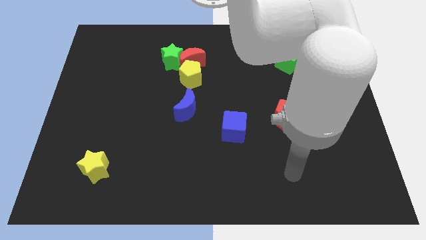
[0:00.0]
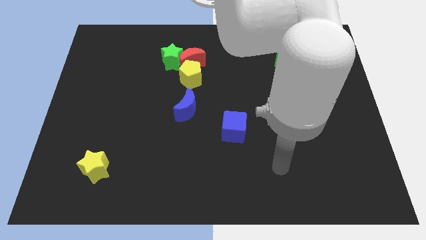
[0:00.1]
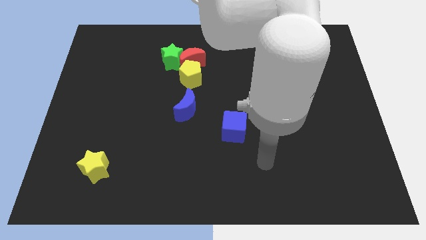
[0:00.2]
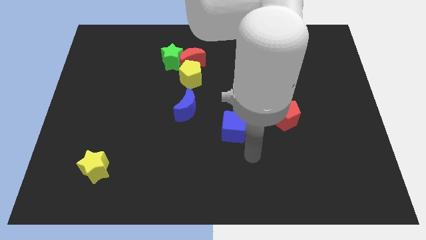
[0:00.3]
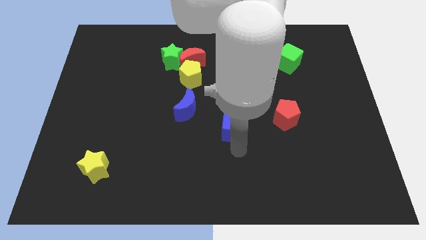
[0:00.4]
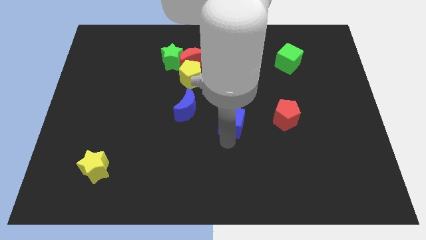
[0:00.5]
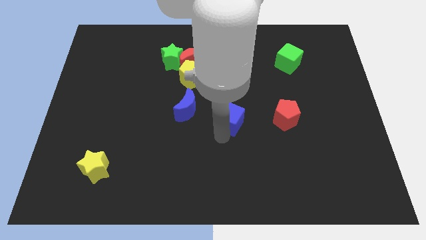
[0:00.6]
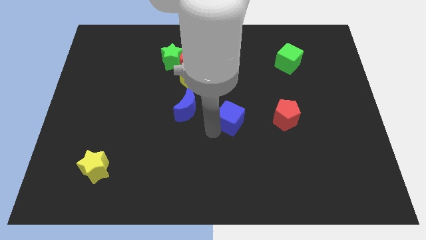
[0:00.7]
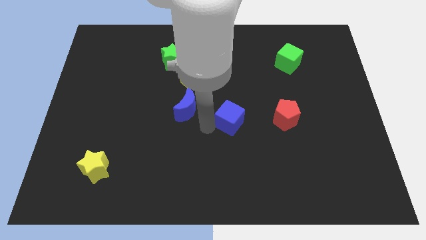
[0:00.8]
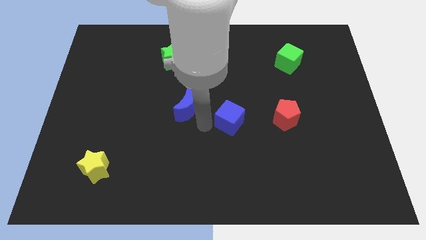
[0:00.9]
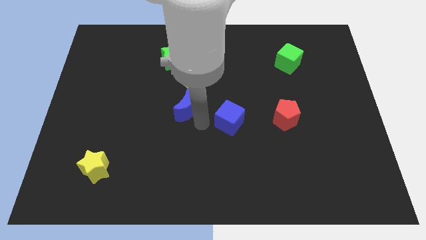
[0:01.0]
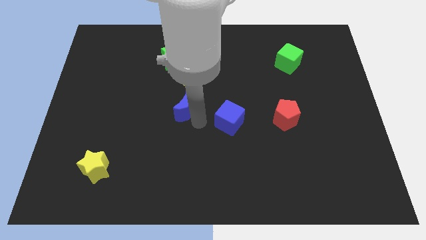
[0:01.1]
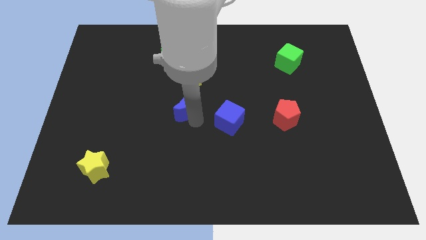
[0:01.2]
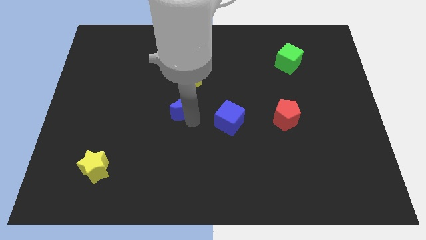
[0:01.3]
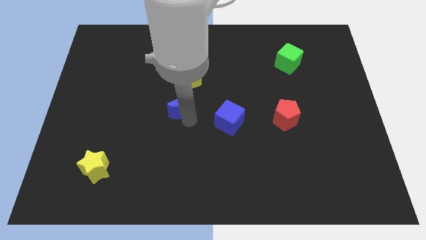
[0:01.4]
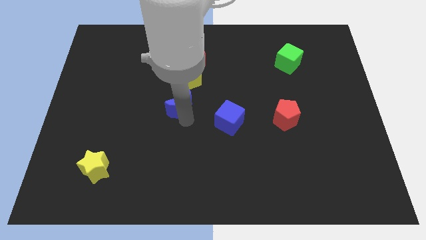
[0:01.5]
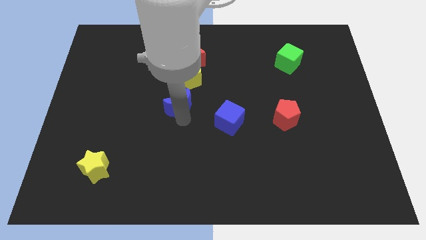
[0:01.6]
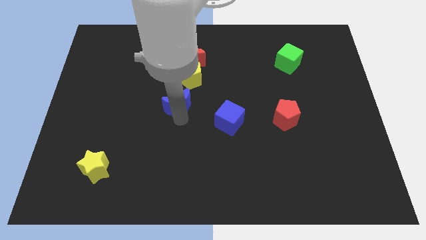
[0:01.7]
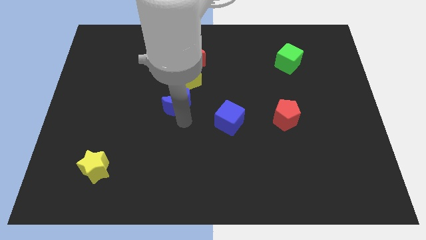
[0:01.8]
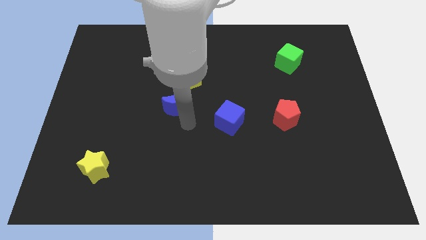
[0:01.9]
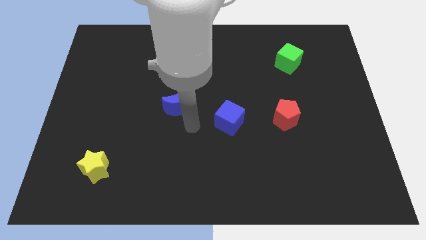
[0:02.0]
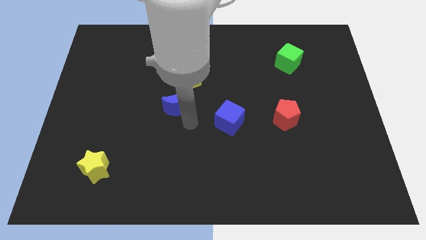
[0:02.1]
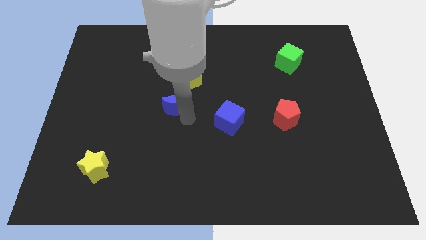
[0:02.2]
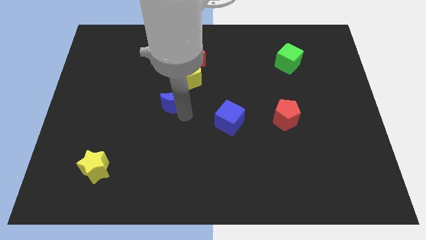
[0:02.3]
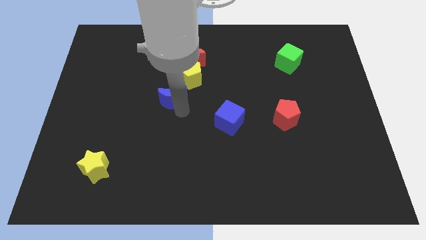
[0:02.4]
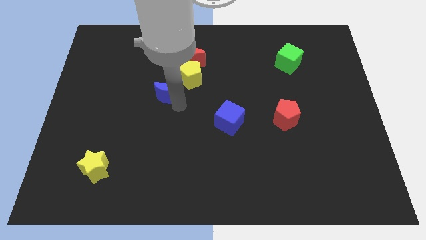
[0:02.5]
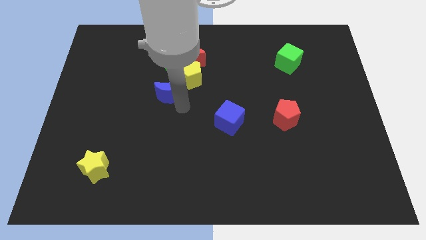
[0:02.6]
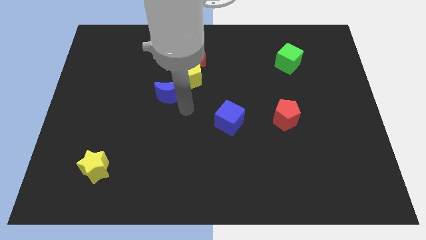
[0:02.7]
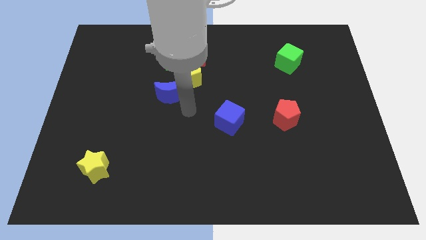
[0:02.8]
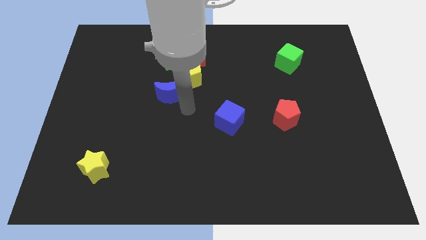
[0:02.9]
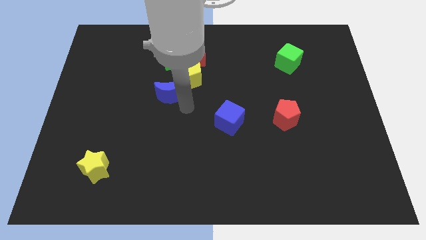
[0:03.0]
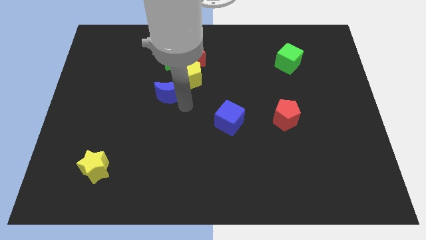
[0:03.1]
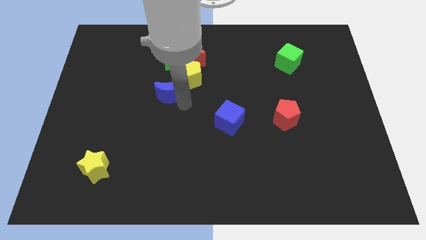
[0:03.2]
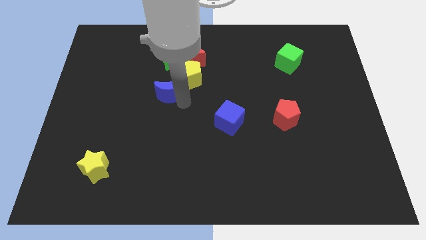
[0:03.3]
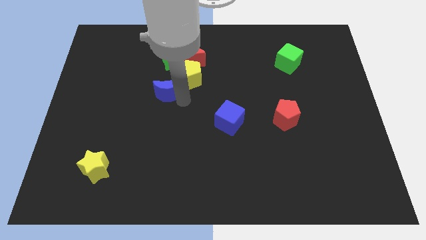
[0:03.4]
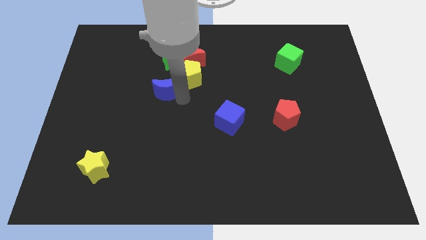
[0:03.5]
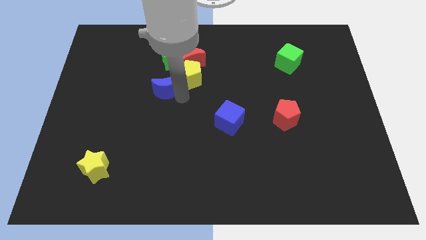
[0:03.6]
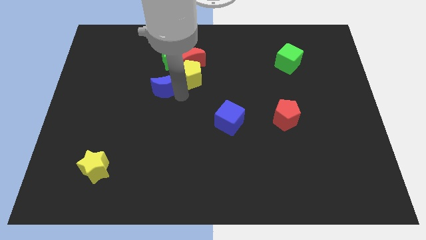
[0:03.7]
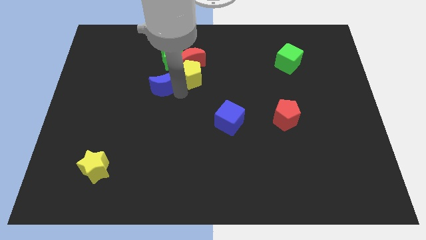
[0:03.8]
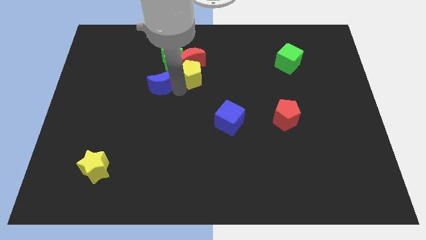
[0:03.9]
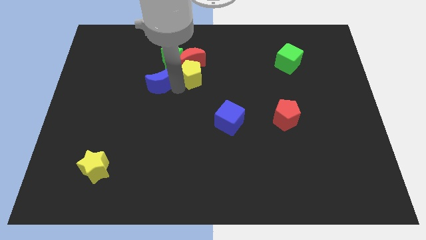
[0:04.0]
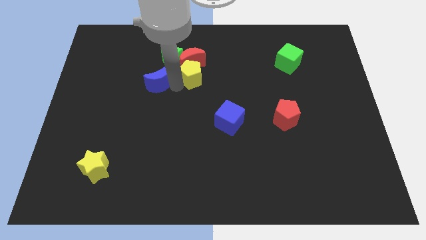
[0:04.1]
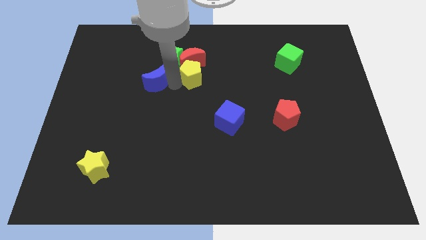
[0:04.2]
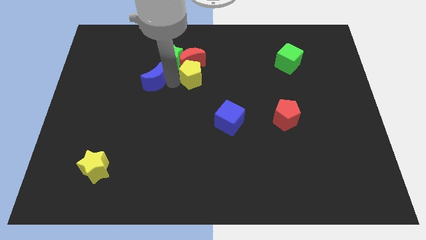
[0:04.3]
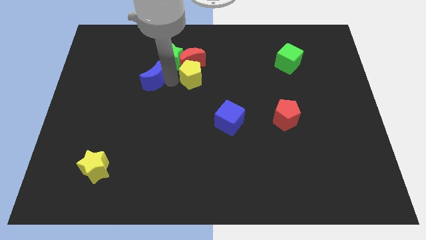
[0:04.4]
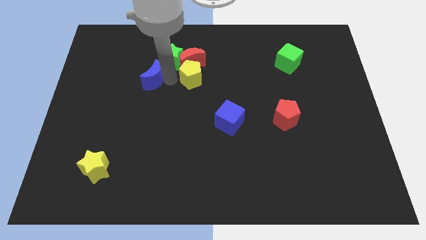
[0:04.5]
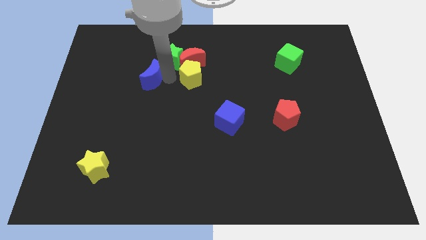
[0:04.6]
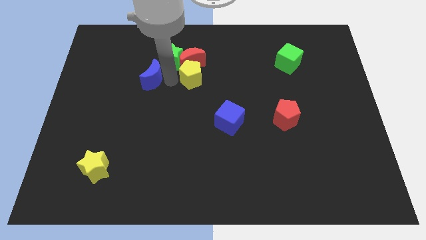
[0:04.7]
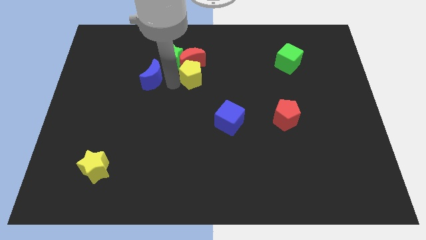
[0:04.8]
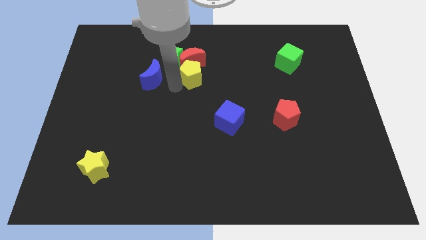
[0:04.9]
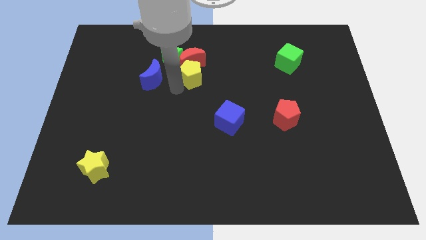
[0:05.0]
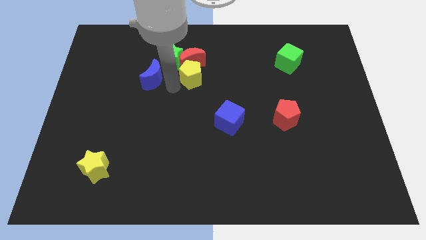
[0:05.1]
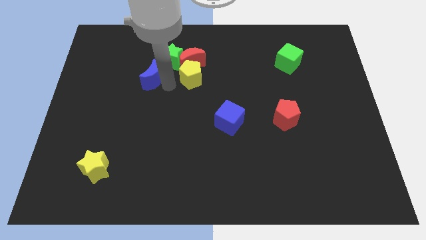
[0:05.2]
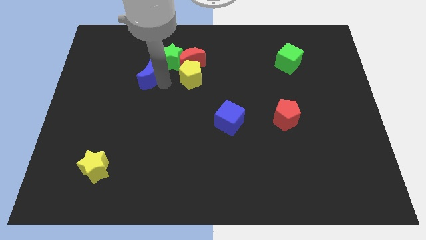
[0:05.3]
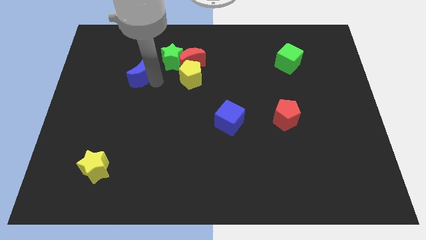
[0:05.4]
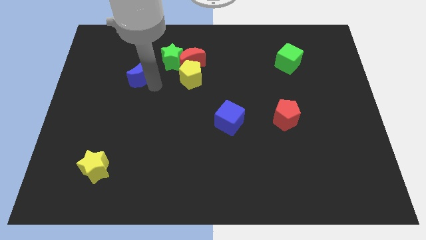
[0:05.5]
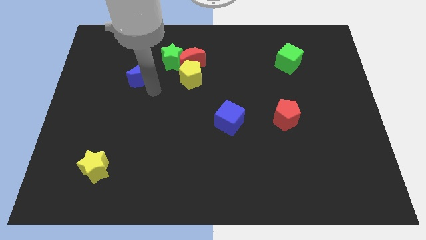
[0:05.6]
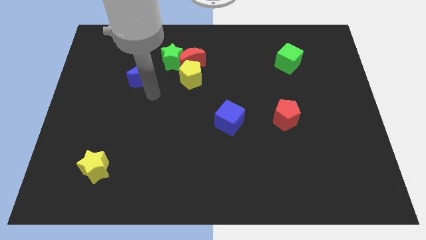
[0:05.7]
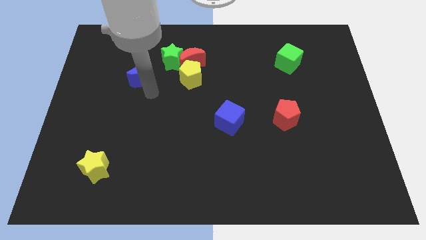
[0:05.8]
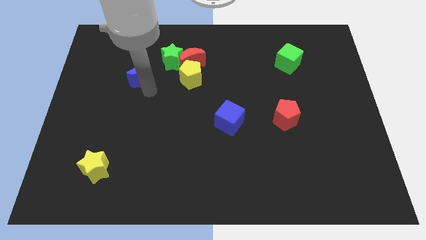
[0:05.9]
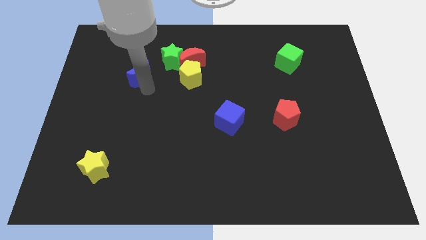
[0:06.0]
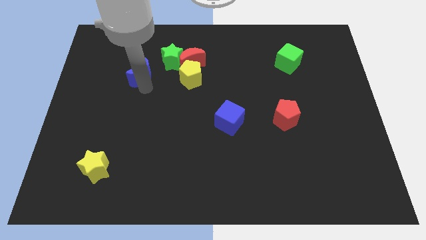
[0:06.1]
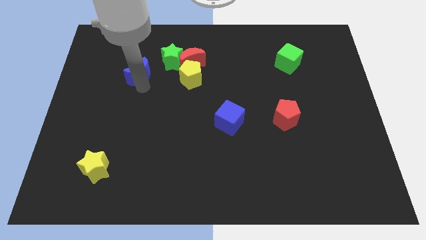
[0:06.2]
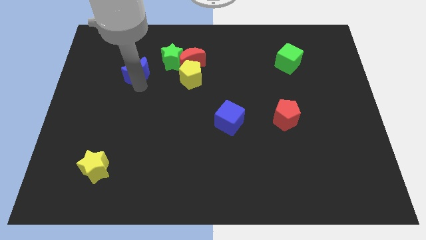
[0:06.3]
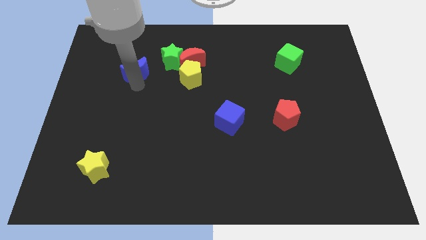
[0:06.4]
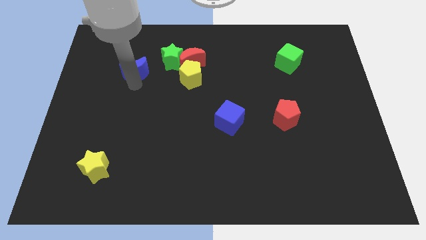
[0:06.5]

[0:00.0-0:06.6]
put the blue moon to the left side of the green star
